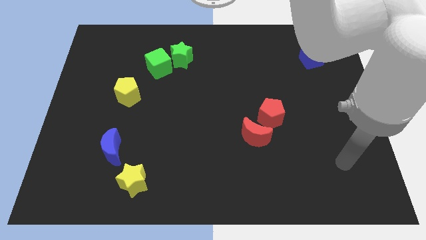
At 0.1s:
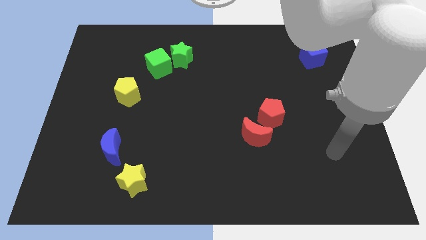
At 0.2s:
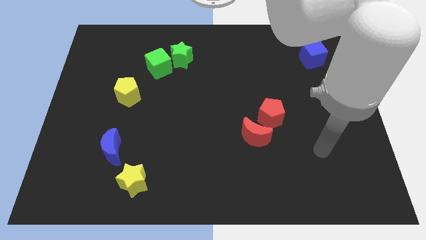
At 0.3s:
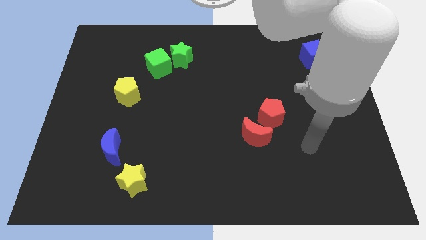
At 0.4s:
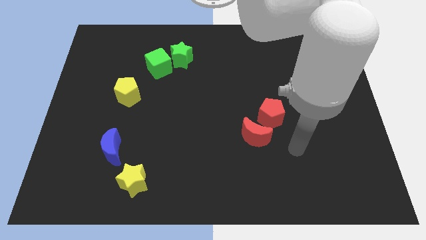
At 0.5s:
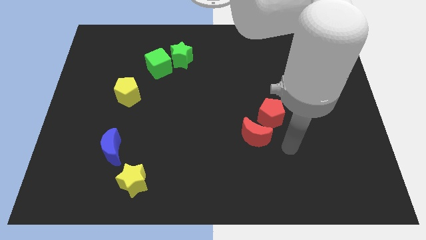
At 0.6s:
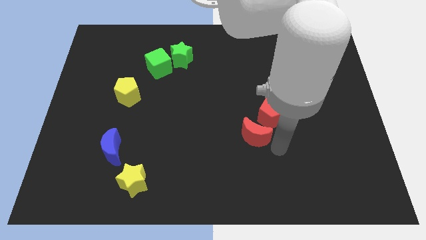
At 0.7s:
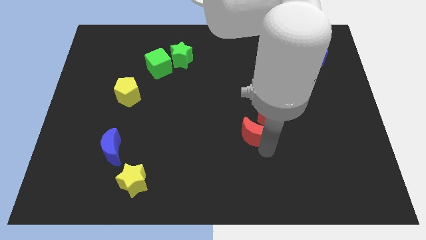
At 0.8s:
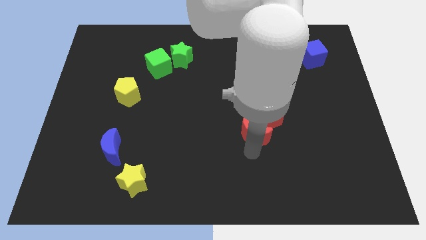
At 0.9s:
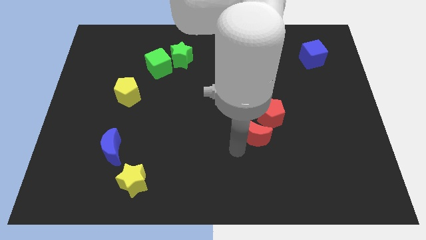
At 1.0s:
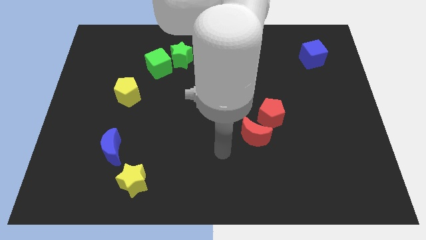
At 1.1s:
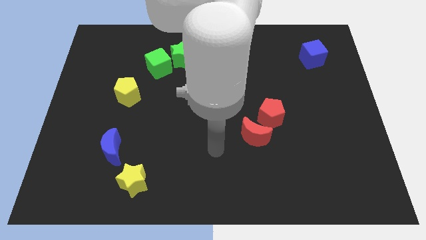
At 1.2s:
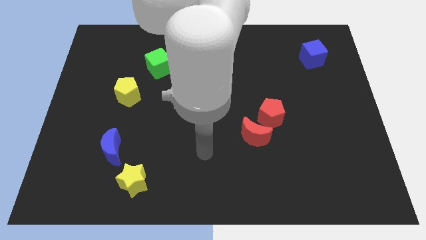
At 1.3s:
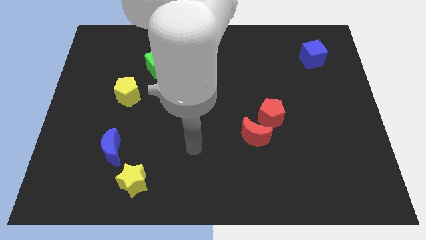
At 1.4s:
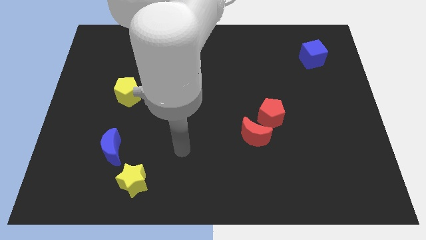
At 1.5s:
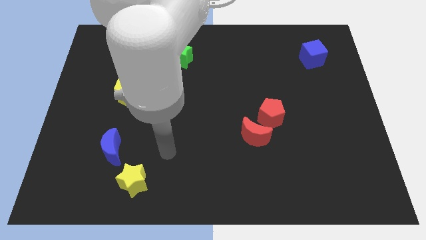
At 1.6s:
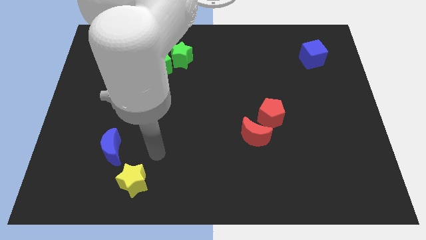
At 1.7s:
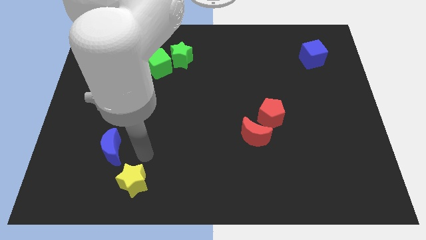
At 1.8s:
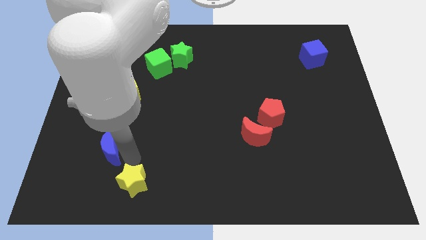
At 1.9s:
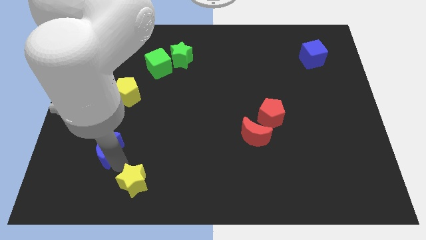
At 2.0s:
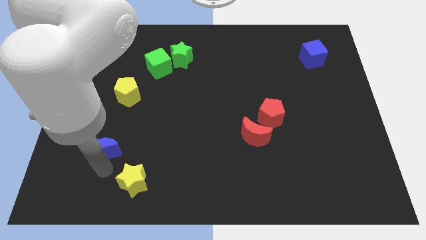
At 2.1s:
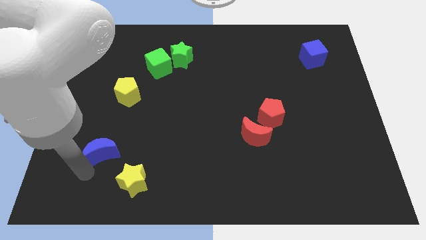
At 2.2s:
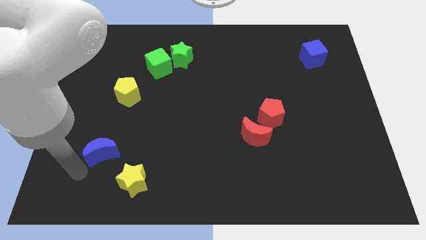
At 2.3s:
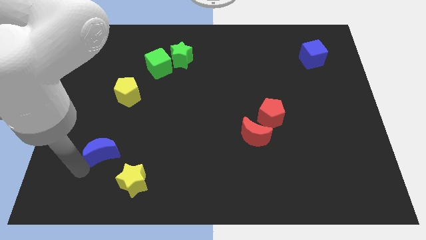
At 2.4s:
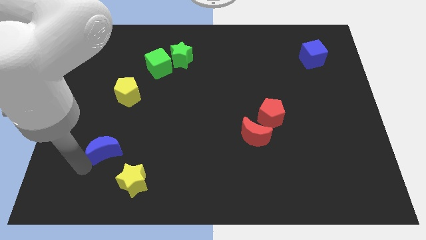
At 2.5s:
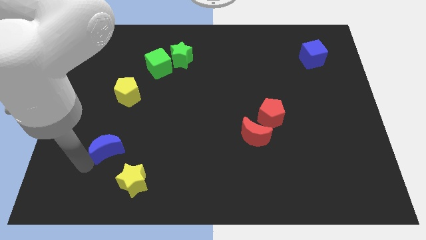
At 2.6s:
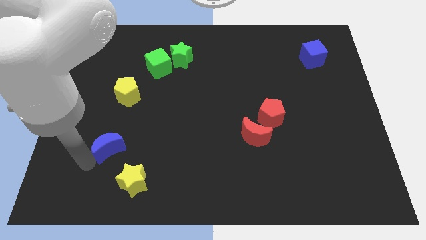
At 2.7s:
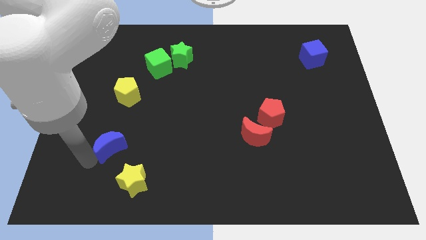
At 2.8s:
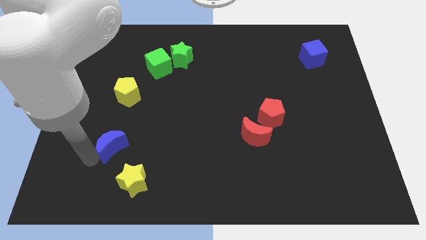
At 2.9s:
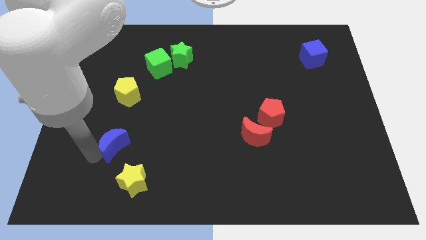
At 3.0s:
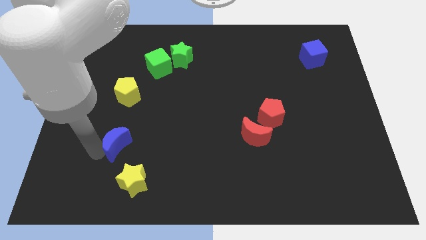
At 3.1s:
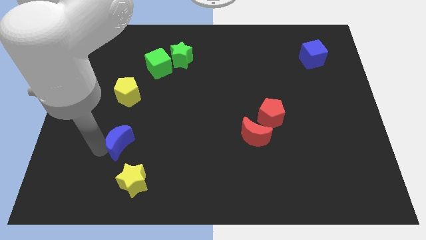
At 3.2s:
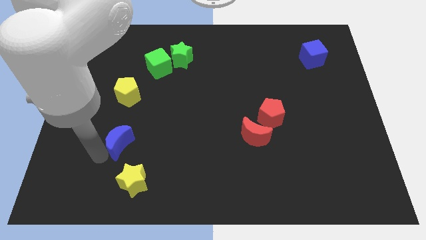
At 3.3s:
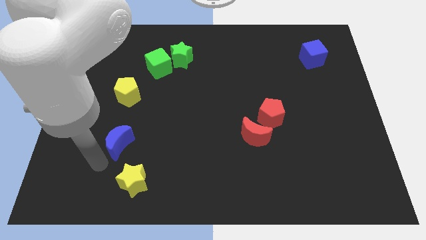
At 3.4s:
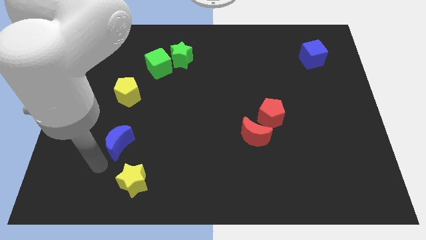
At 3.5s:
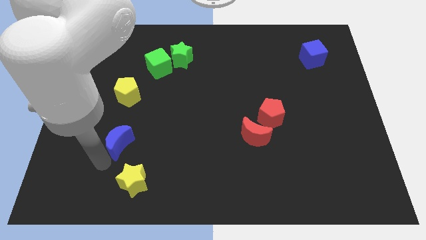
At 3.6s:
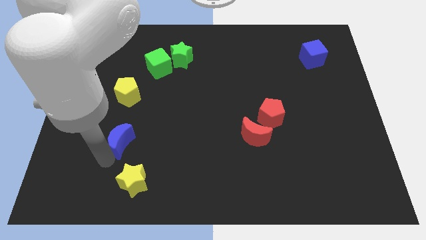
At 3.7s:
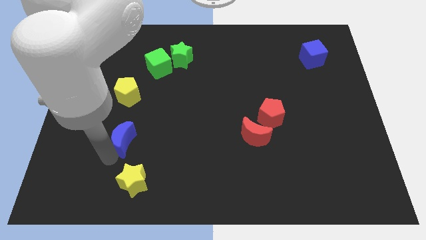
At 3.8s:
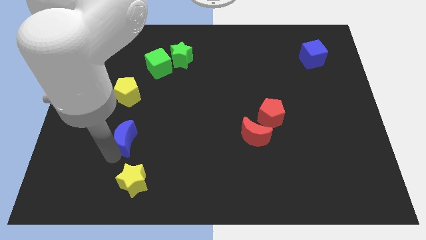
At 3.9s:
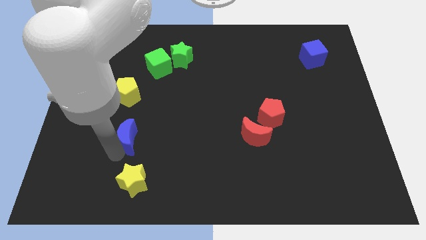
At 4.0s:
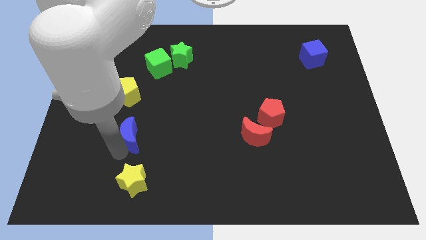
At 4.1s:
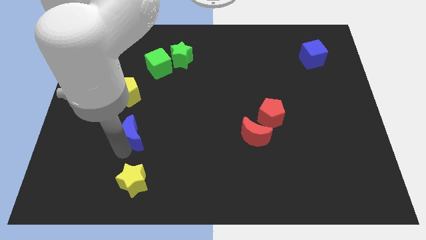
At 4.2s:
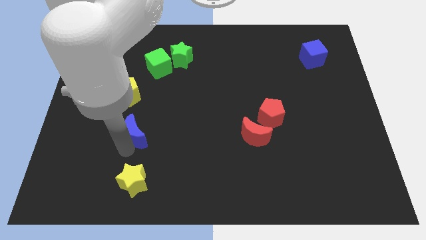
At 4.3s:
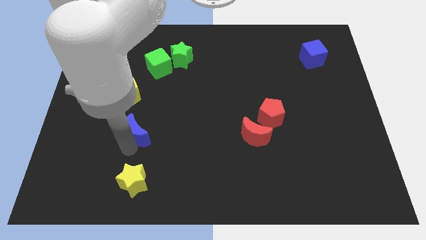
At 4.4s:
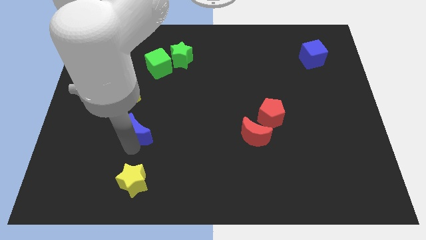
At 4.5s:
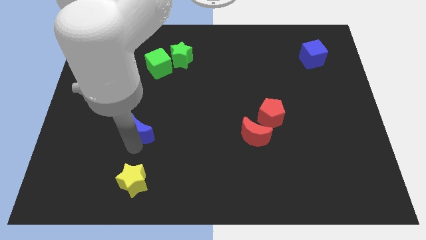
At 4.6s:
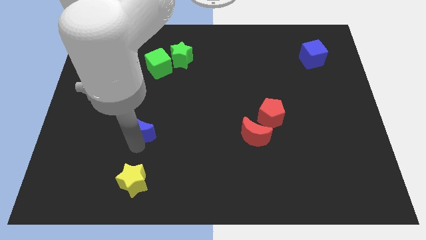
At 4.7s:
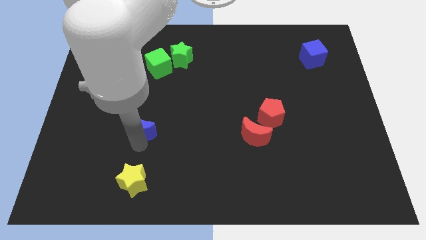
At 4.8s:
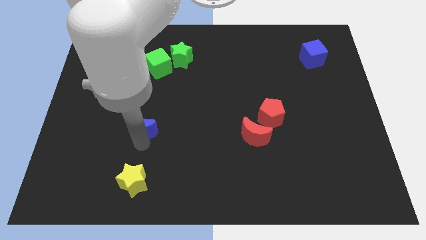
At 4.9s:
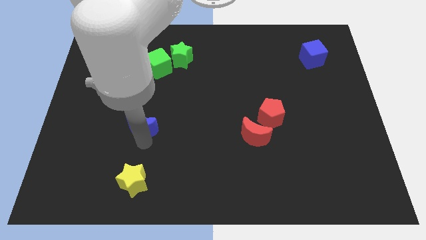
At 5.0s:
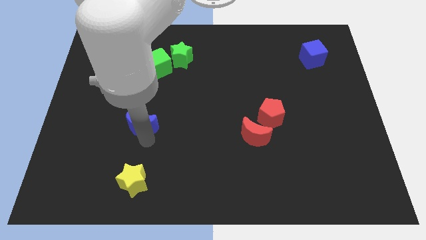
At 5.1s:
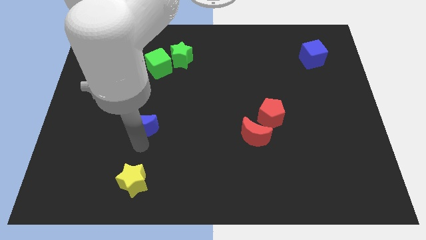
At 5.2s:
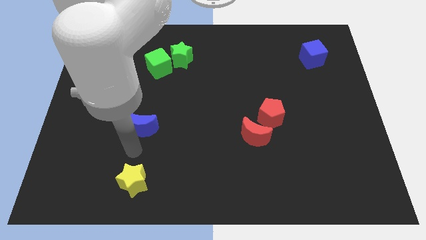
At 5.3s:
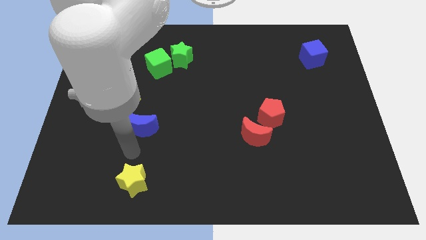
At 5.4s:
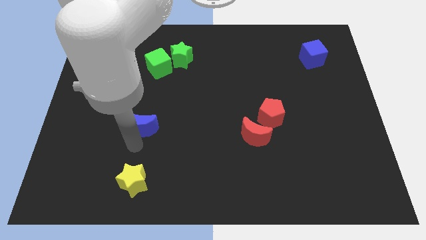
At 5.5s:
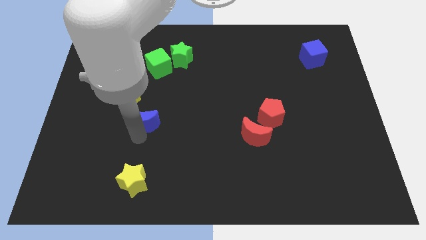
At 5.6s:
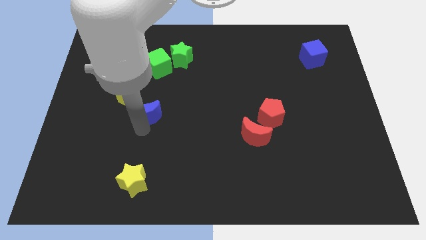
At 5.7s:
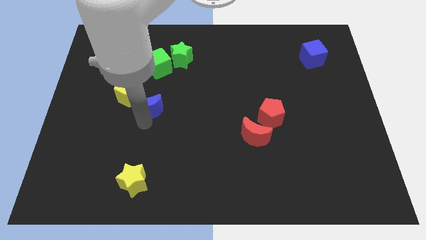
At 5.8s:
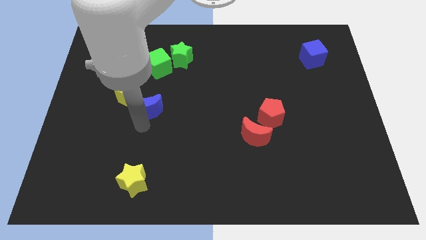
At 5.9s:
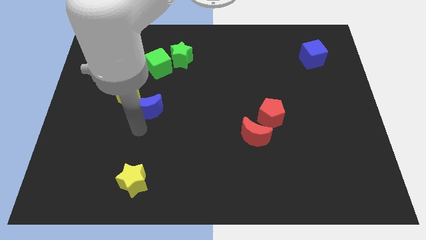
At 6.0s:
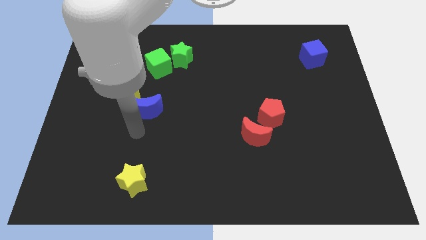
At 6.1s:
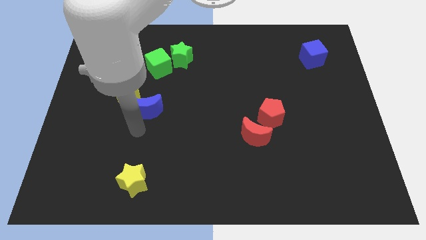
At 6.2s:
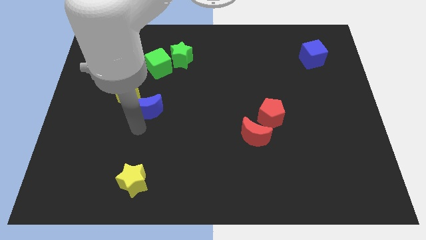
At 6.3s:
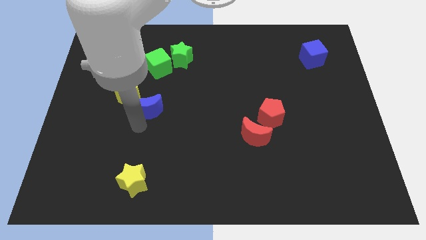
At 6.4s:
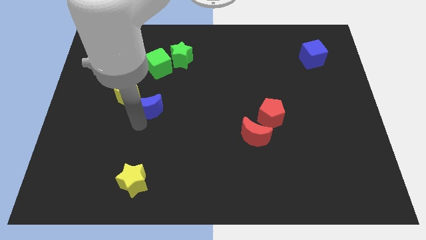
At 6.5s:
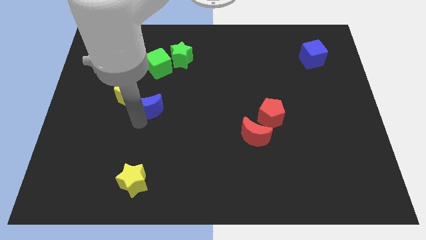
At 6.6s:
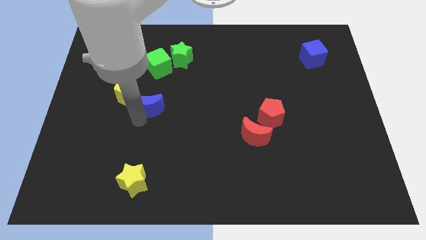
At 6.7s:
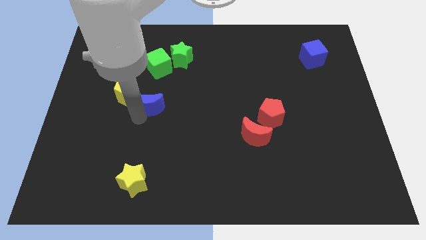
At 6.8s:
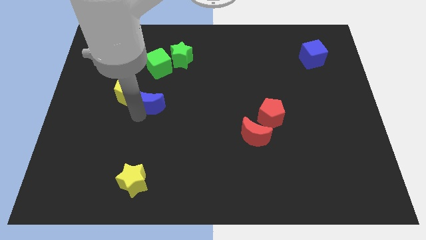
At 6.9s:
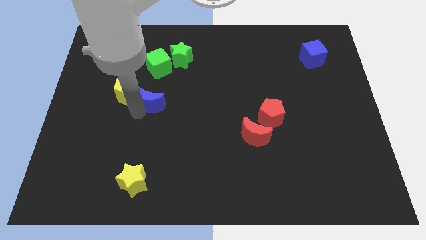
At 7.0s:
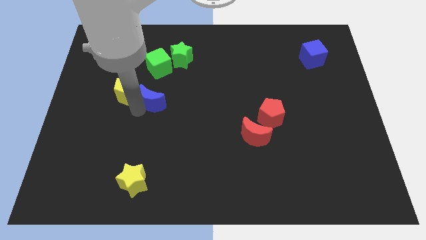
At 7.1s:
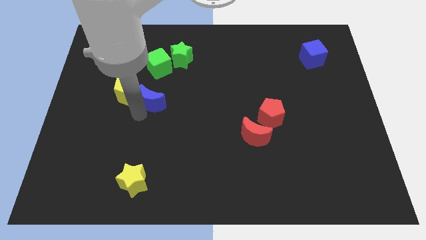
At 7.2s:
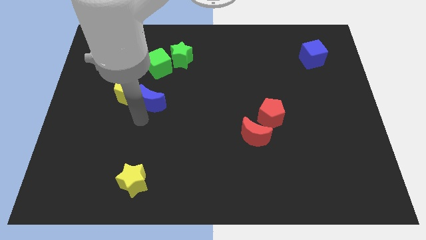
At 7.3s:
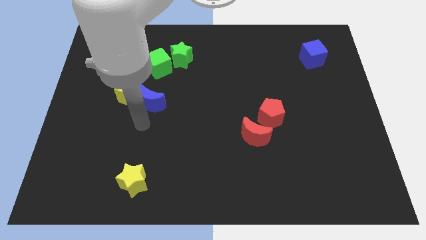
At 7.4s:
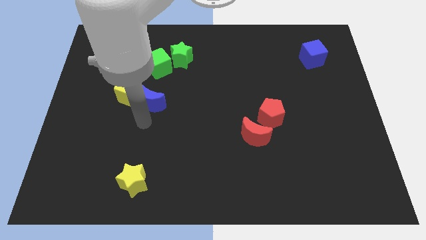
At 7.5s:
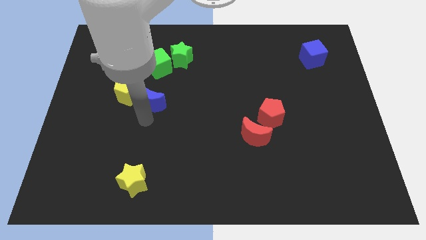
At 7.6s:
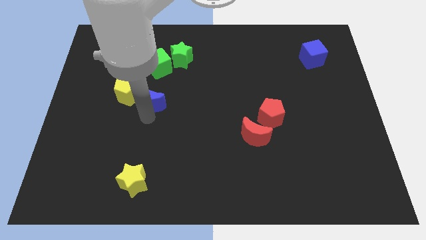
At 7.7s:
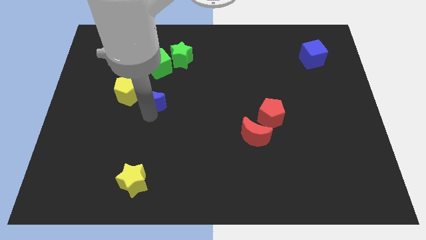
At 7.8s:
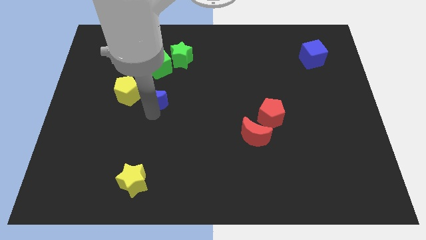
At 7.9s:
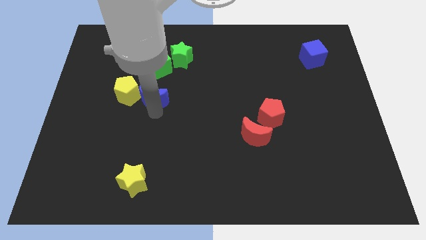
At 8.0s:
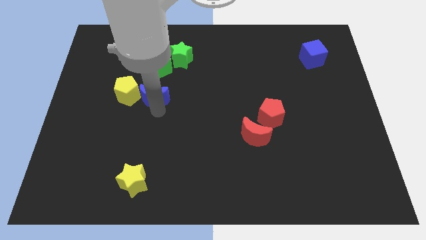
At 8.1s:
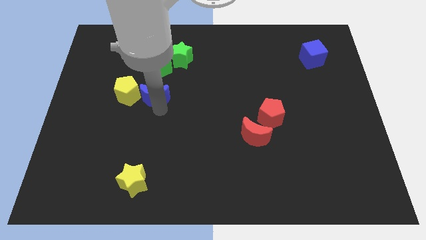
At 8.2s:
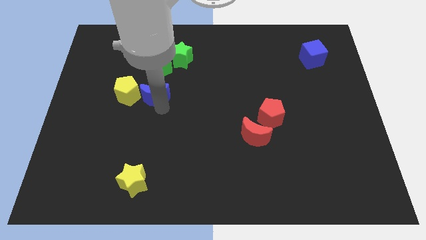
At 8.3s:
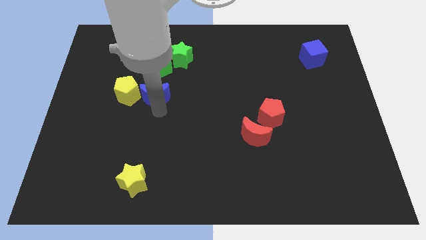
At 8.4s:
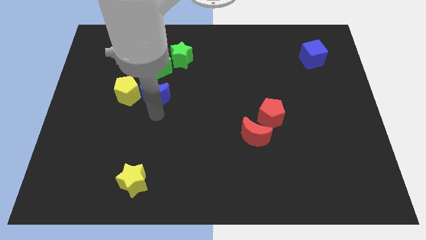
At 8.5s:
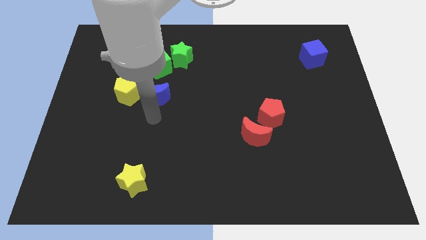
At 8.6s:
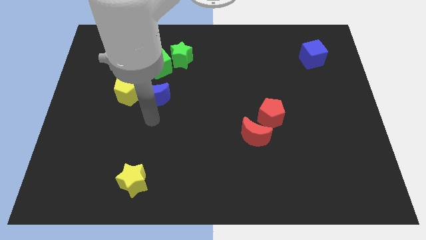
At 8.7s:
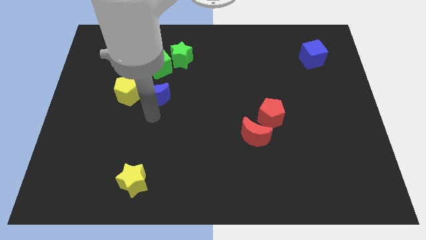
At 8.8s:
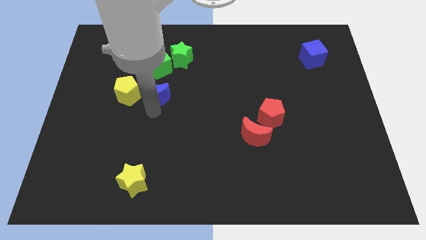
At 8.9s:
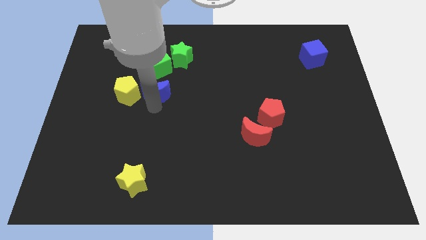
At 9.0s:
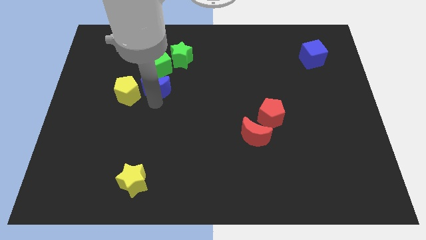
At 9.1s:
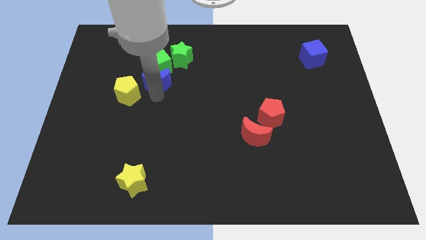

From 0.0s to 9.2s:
move the blue moon close to the green cube
